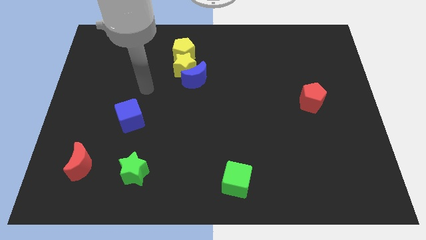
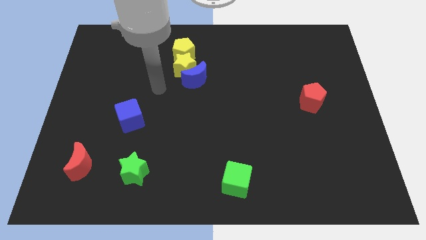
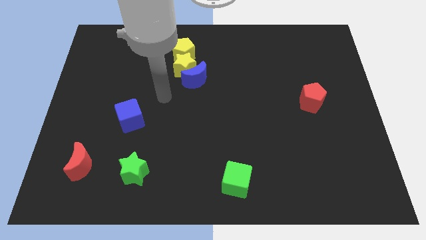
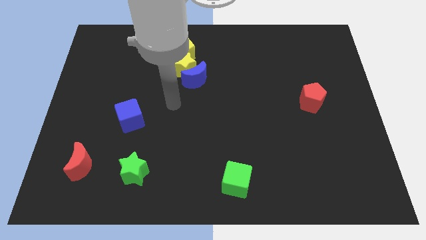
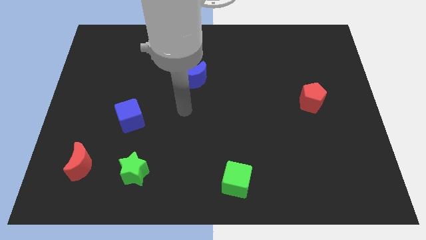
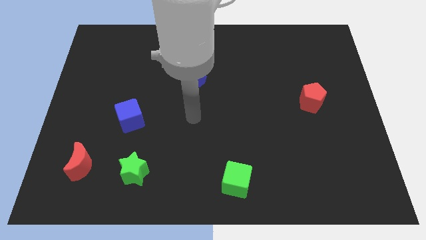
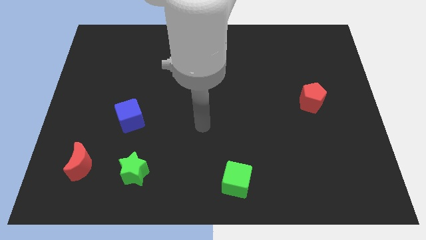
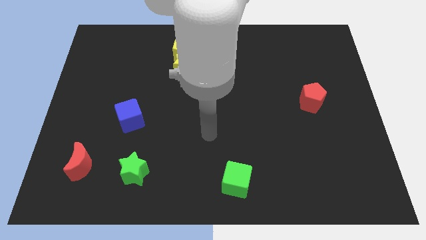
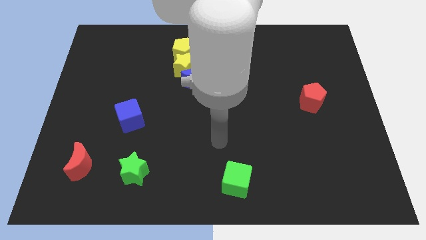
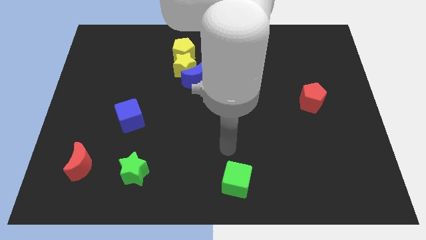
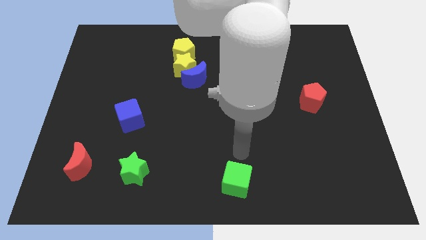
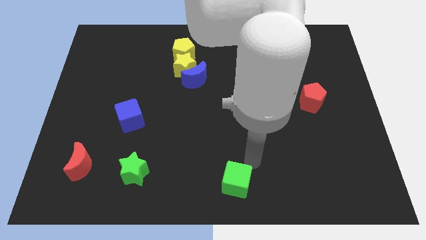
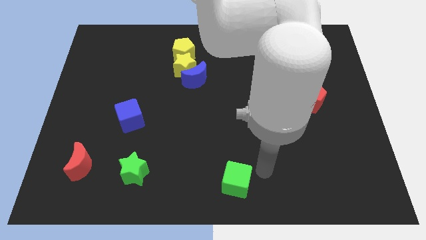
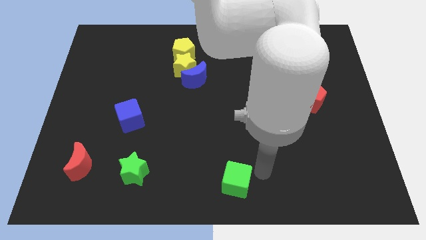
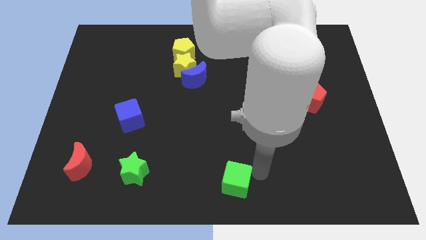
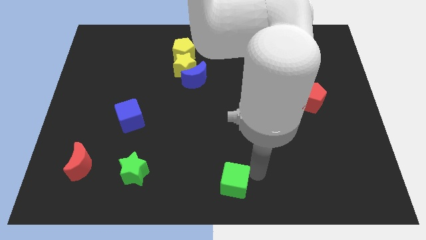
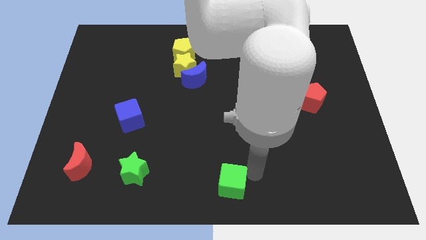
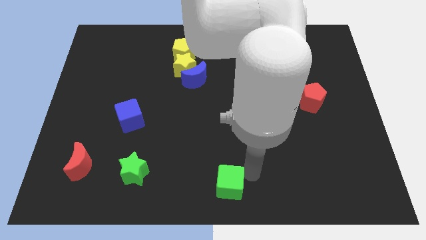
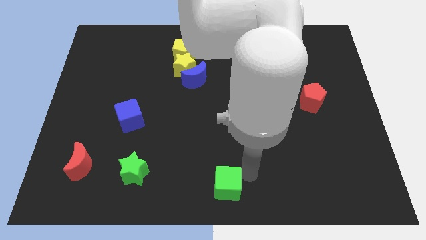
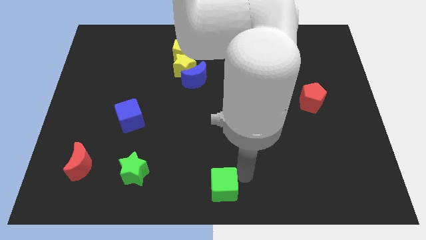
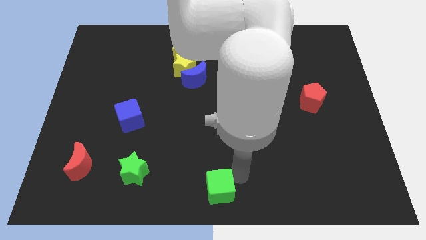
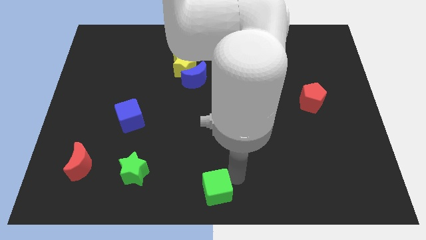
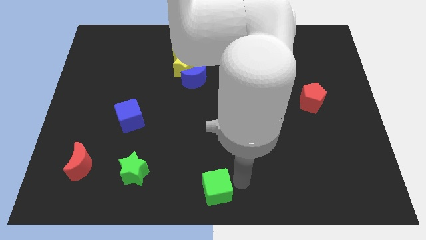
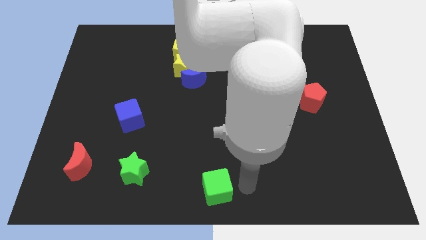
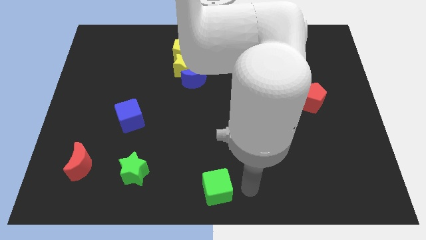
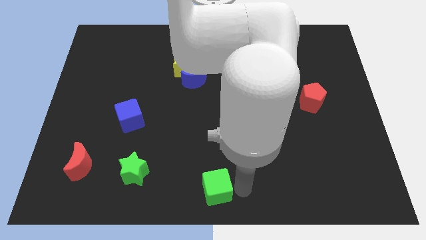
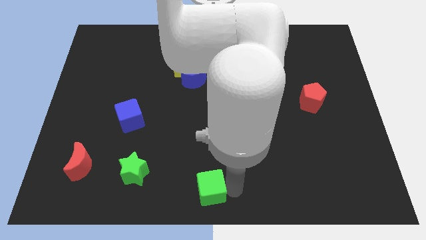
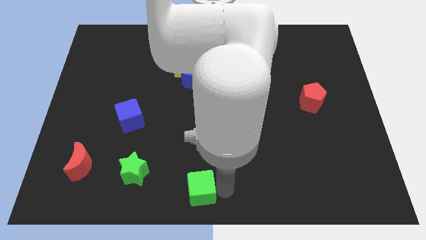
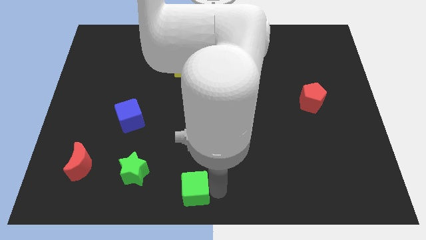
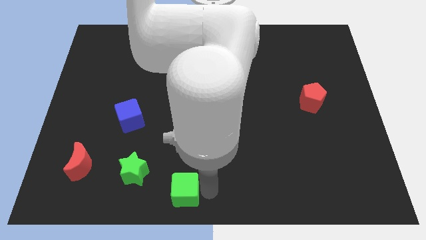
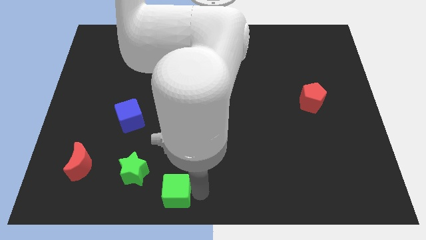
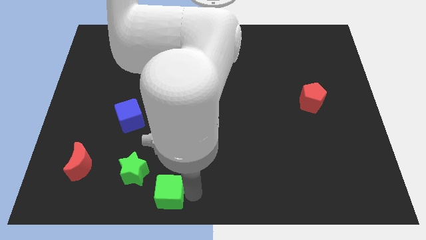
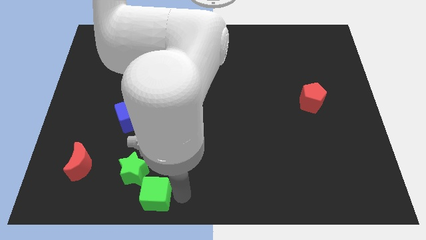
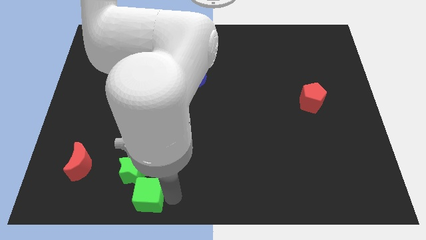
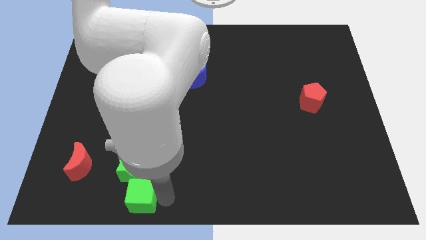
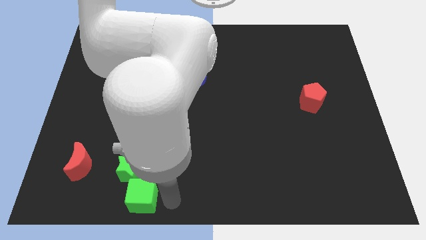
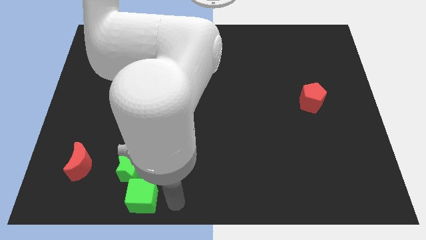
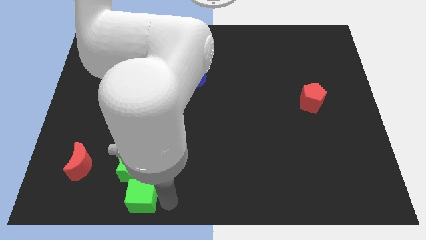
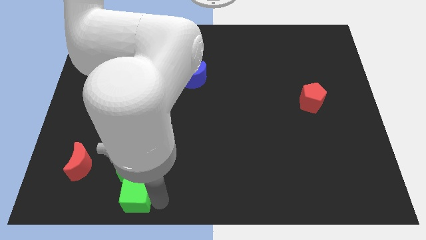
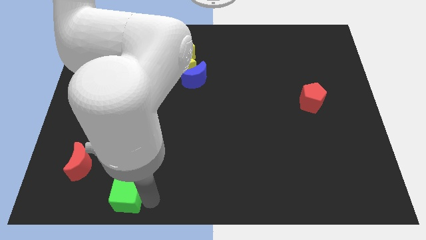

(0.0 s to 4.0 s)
push the green cube left

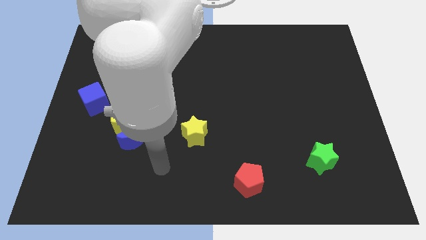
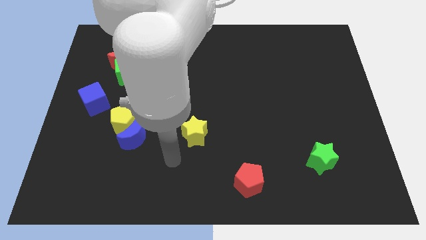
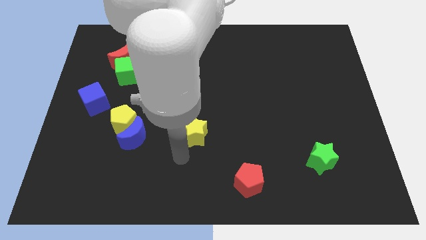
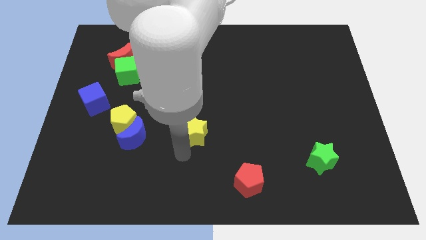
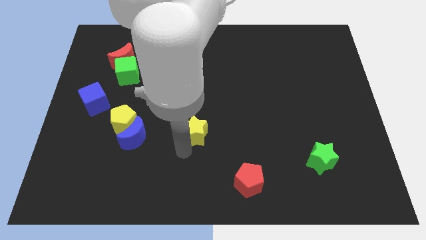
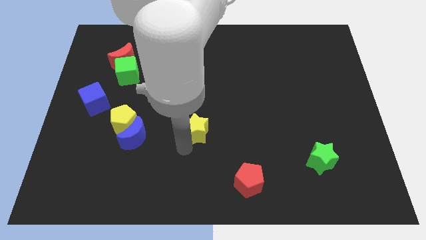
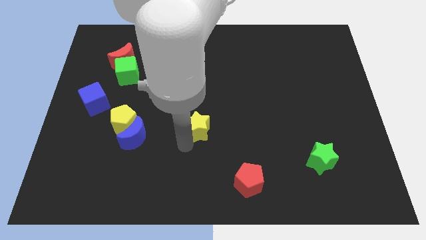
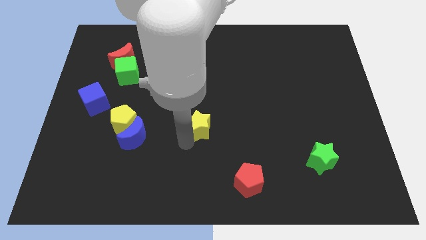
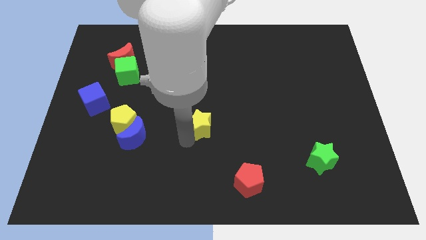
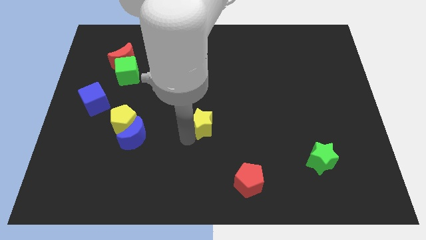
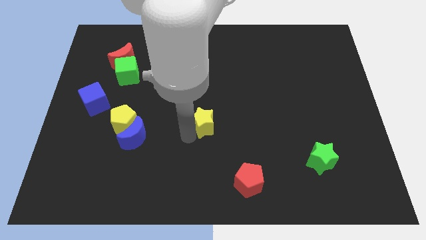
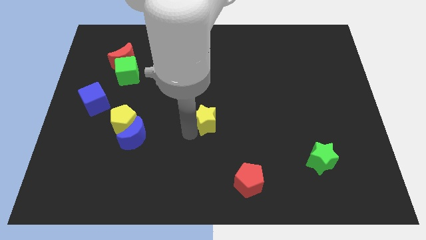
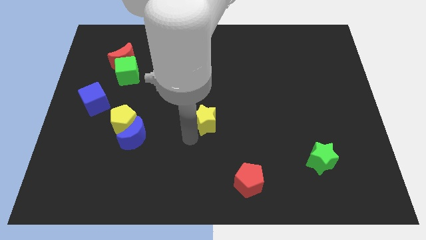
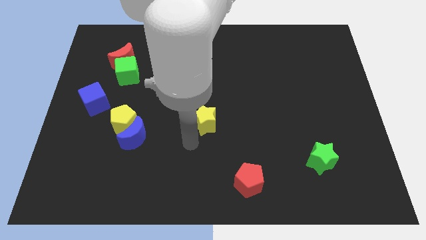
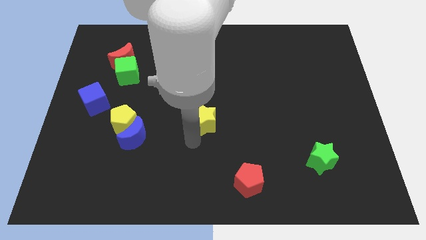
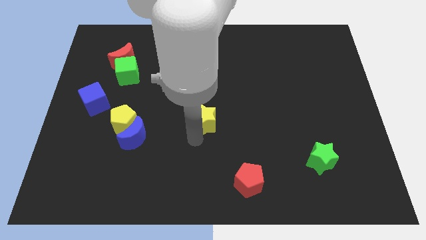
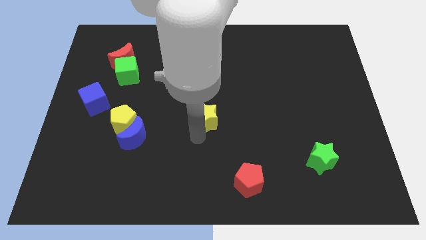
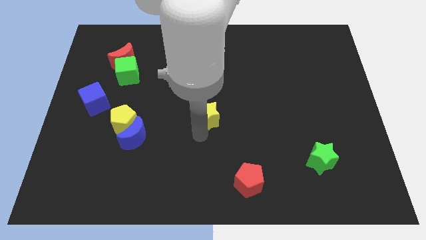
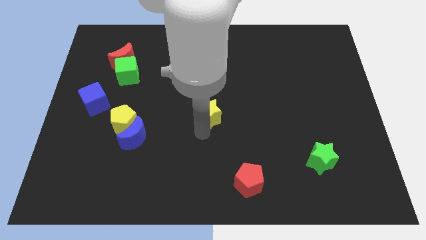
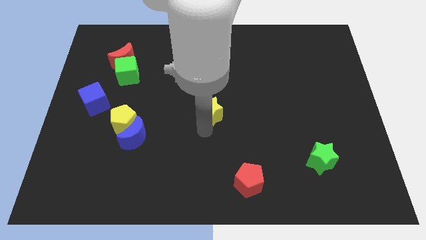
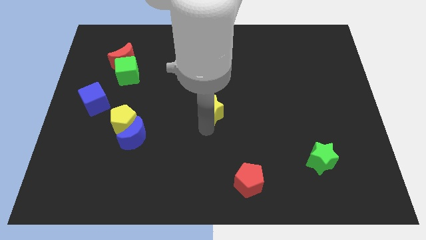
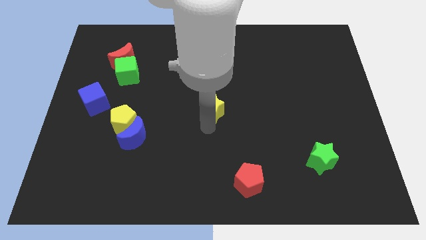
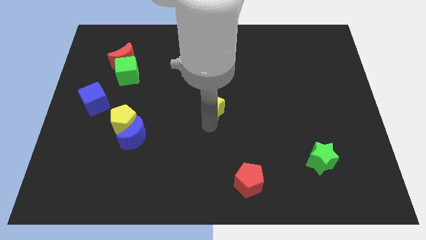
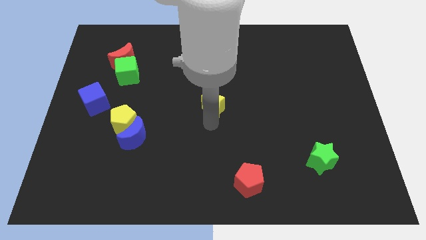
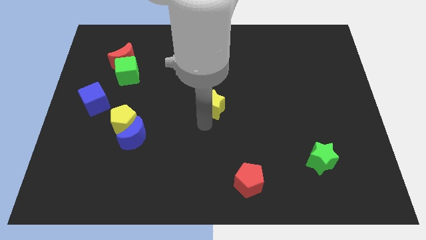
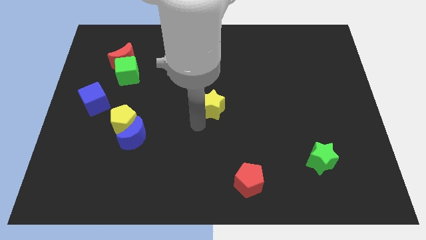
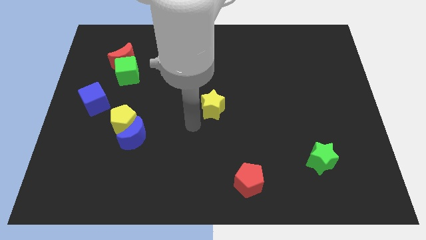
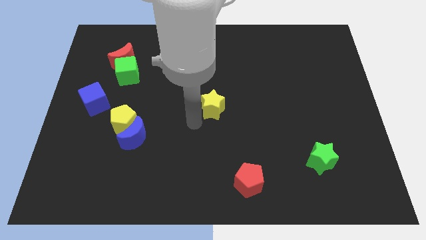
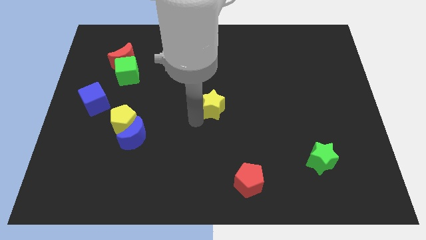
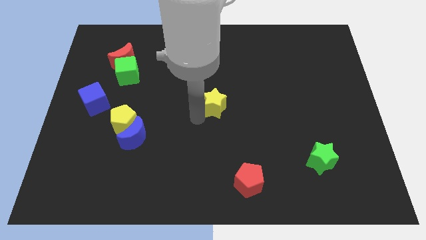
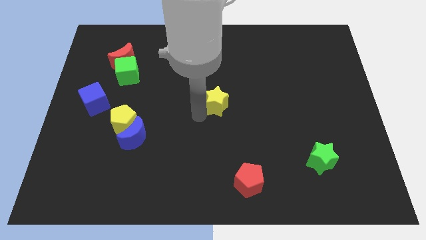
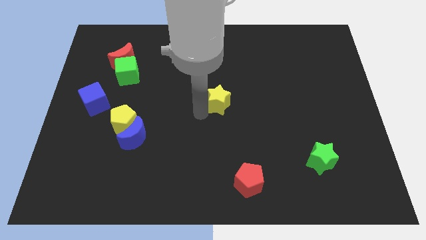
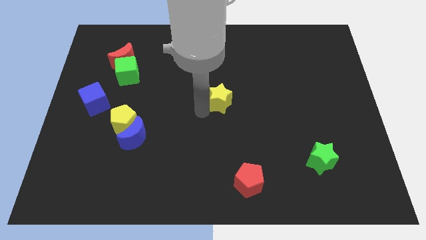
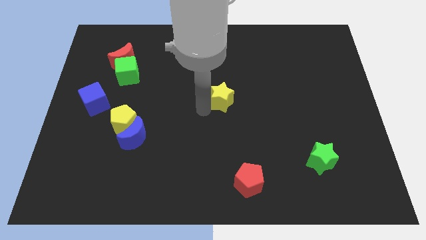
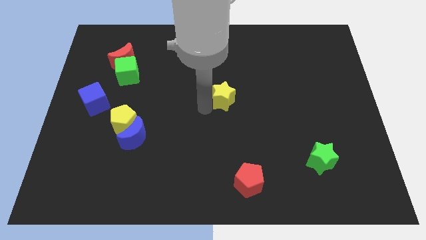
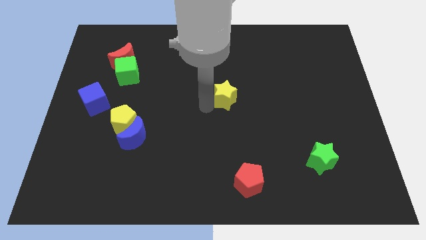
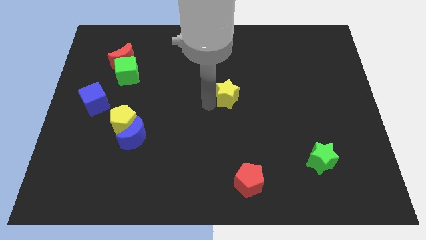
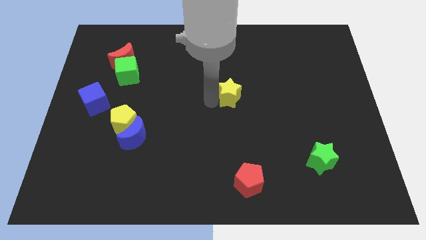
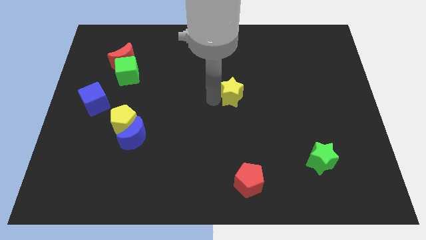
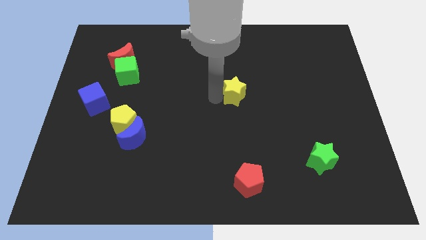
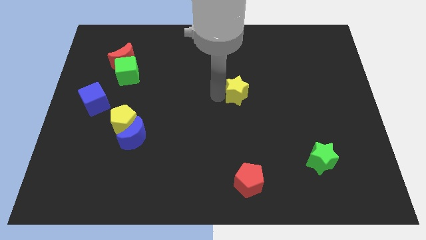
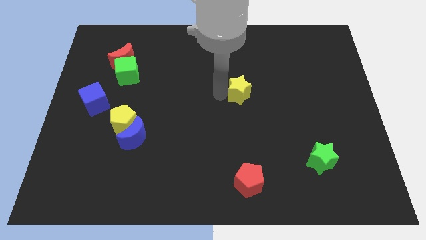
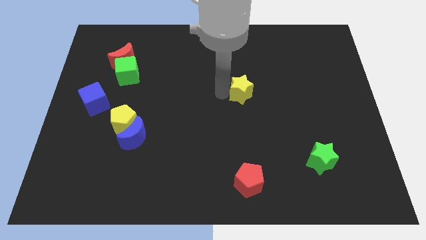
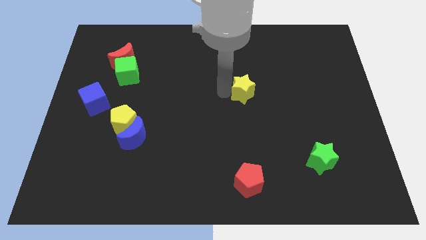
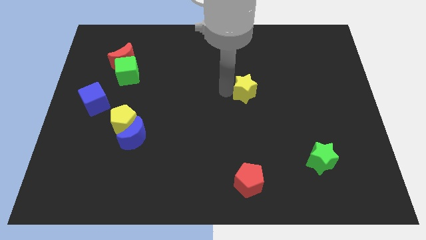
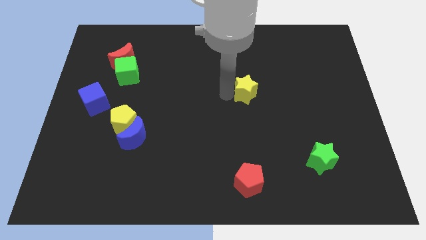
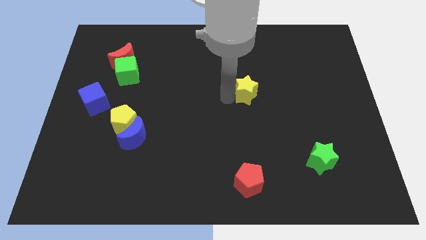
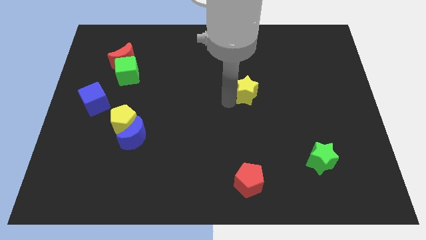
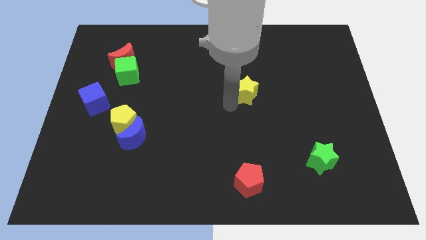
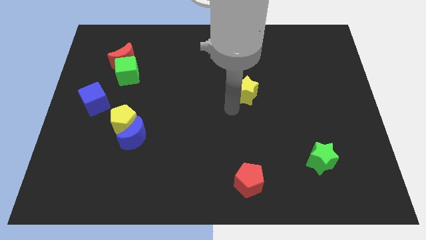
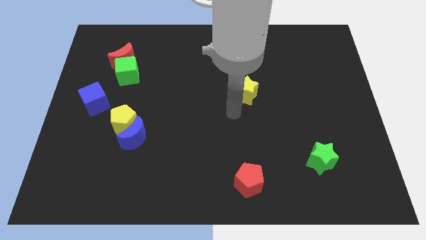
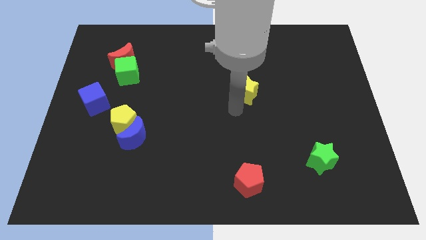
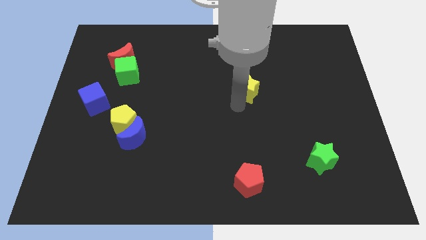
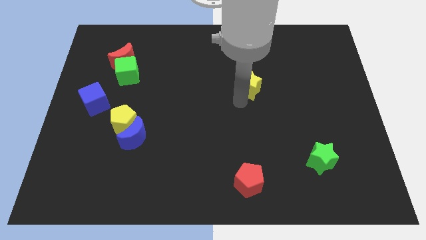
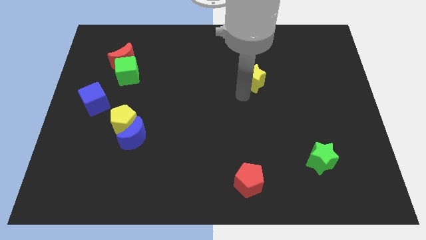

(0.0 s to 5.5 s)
slide the yellow star diagonally upwards and to the right
